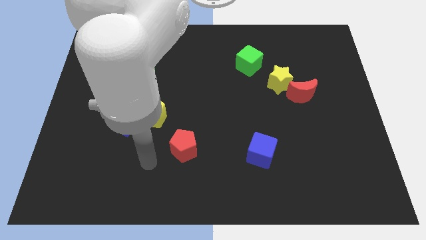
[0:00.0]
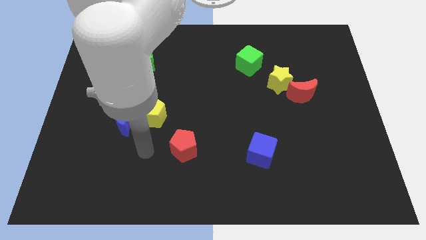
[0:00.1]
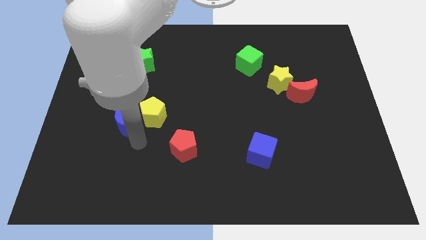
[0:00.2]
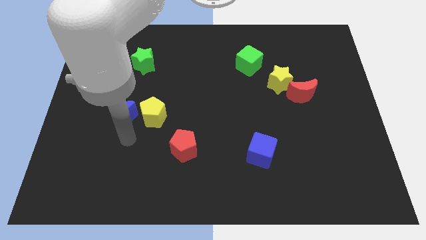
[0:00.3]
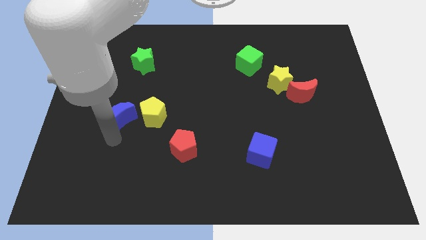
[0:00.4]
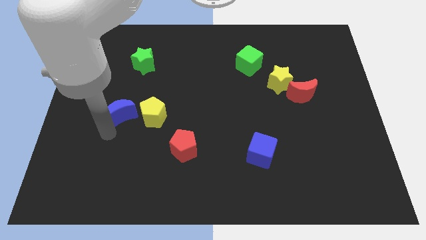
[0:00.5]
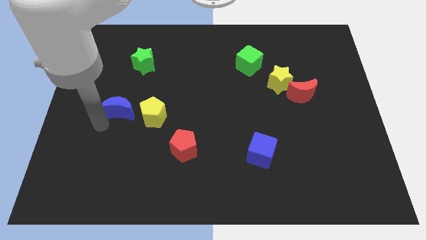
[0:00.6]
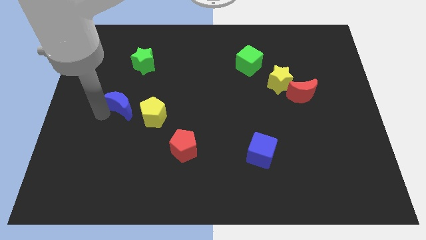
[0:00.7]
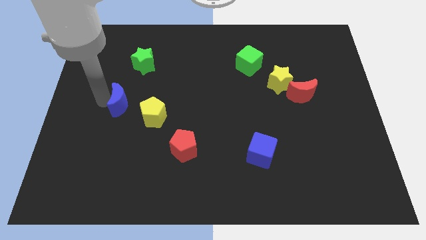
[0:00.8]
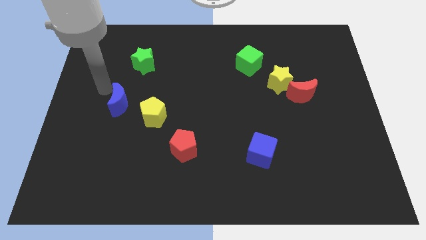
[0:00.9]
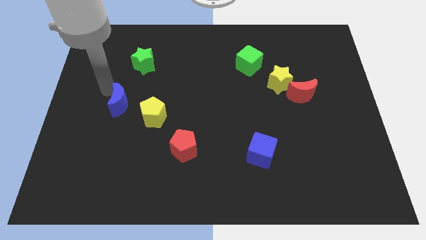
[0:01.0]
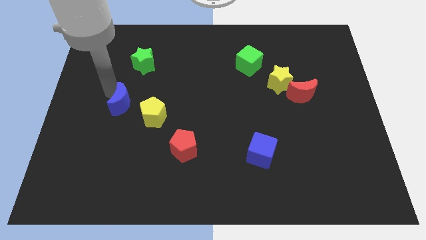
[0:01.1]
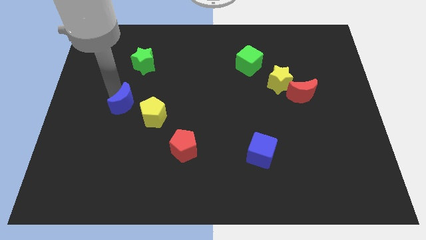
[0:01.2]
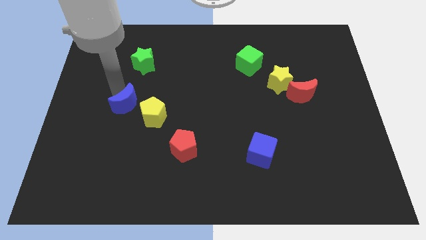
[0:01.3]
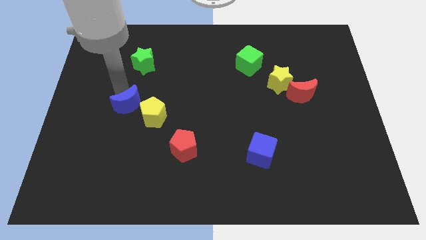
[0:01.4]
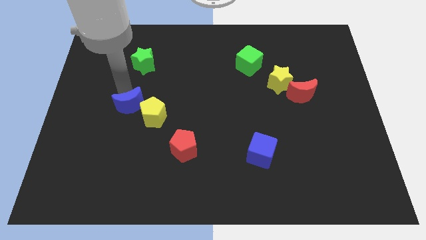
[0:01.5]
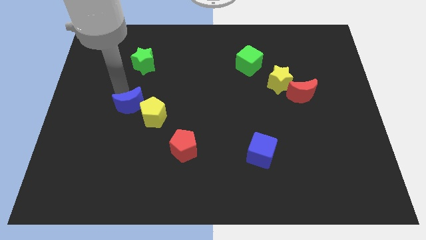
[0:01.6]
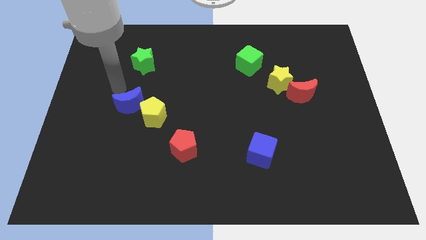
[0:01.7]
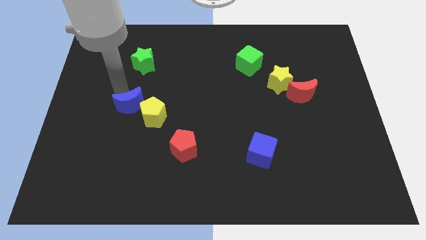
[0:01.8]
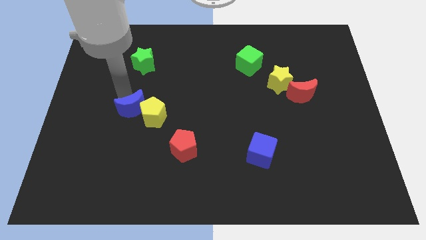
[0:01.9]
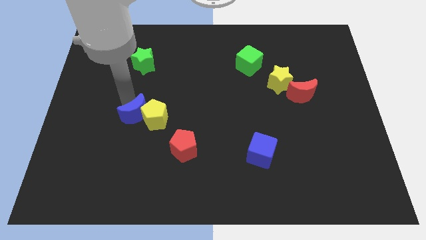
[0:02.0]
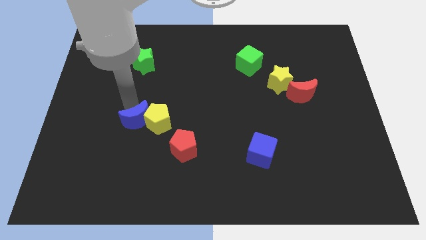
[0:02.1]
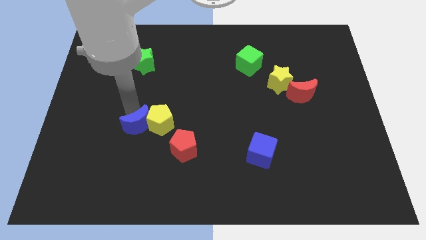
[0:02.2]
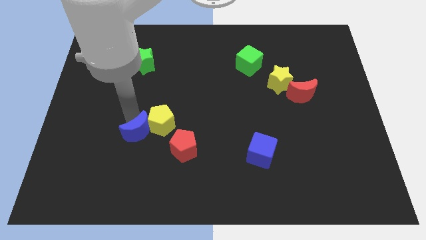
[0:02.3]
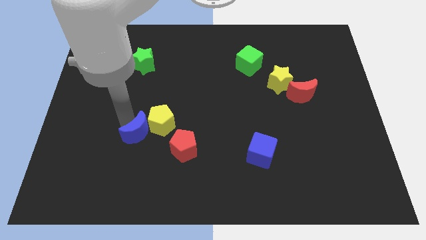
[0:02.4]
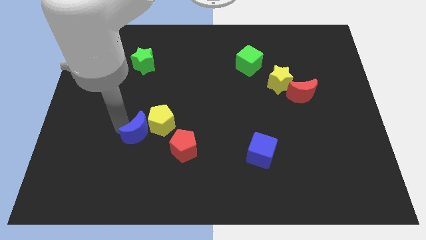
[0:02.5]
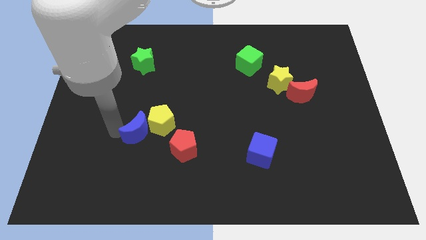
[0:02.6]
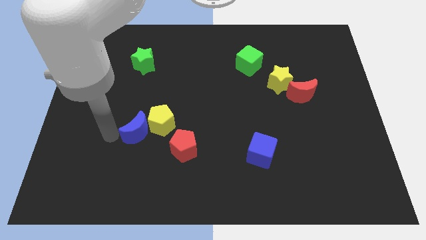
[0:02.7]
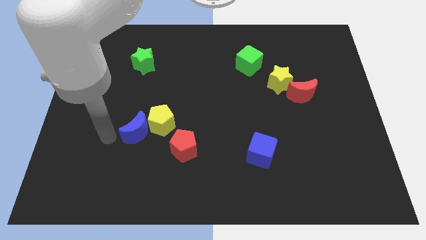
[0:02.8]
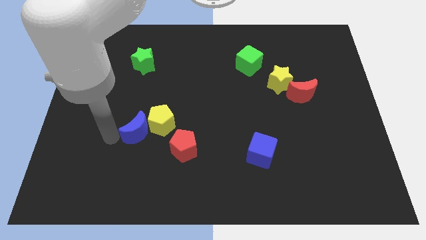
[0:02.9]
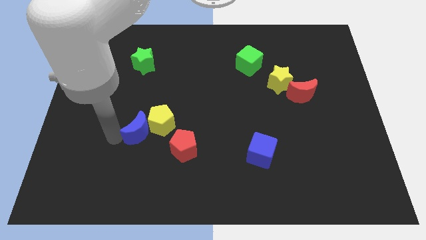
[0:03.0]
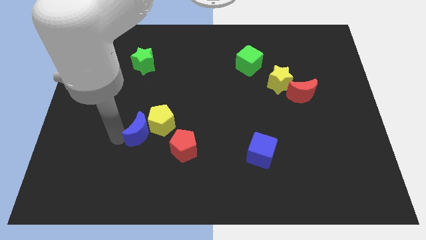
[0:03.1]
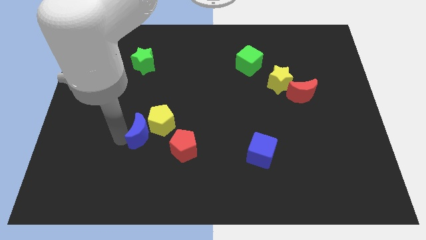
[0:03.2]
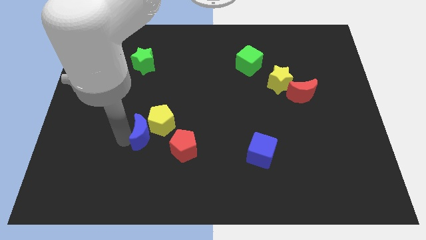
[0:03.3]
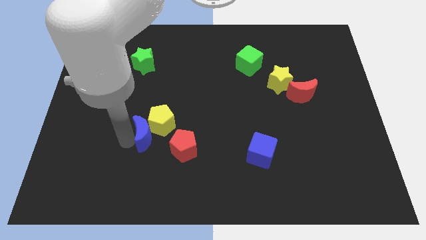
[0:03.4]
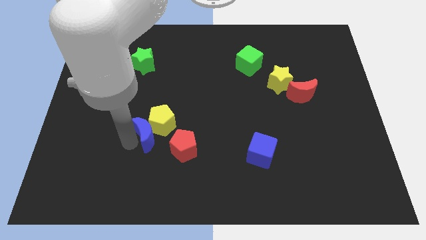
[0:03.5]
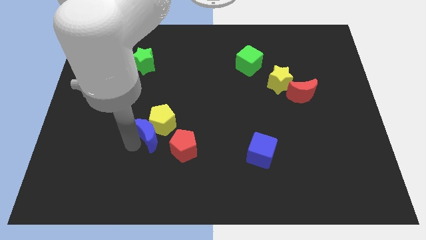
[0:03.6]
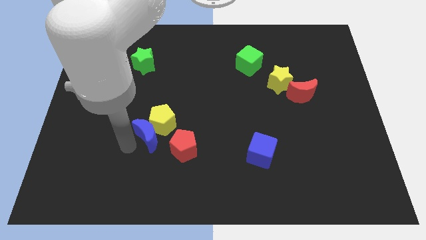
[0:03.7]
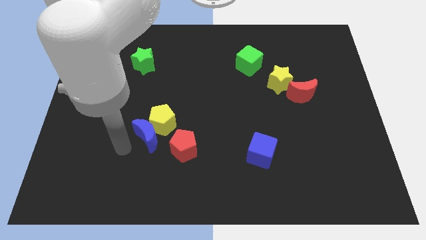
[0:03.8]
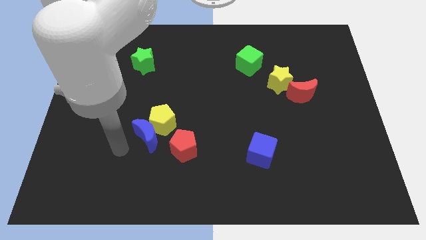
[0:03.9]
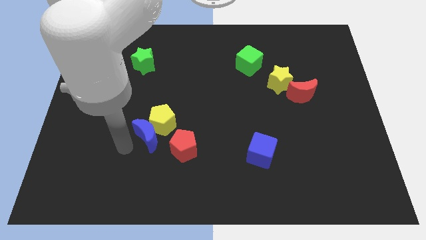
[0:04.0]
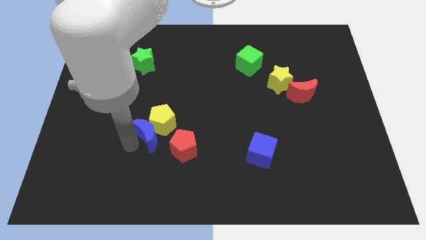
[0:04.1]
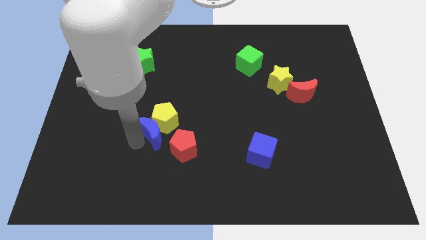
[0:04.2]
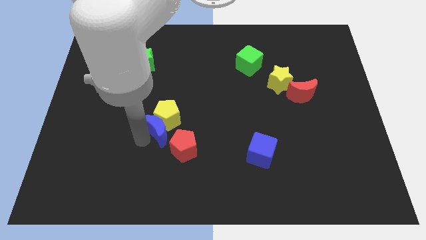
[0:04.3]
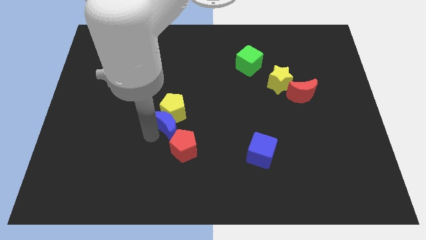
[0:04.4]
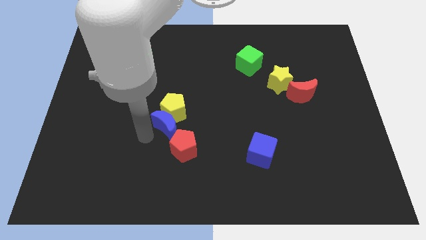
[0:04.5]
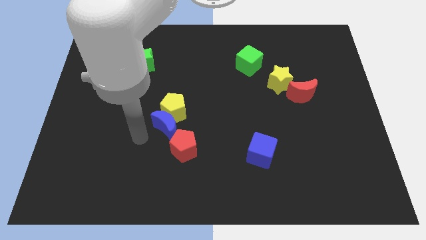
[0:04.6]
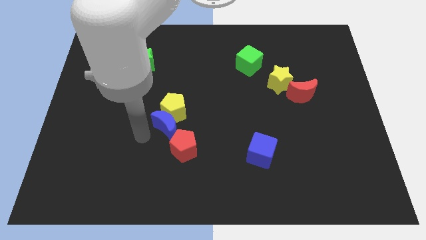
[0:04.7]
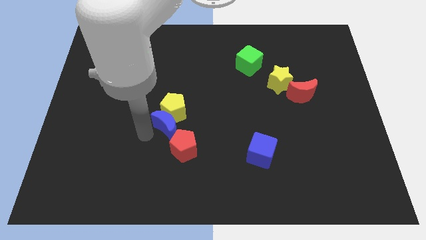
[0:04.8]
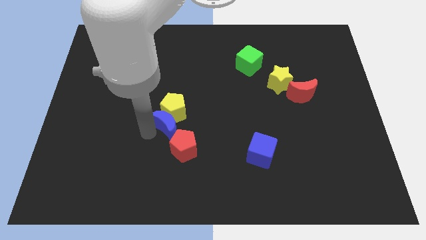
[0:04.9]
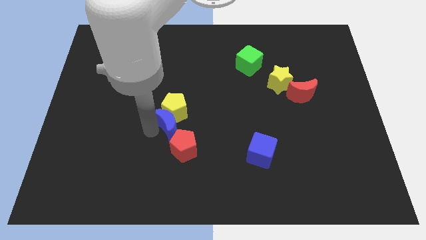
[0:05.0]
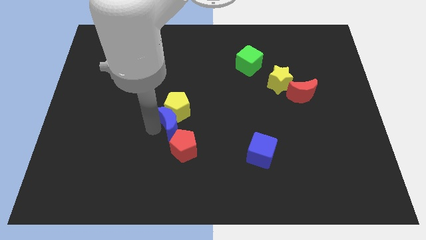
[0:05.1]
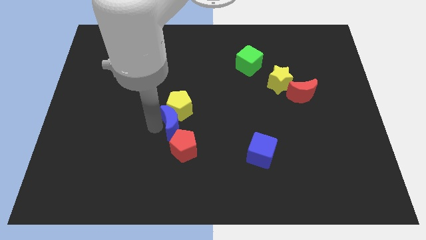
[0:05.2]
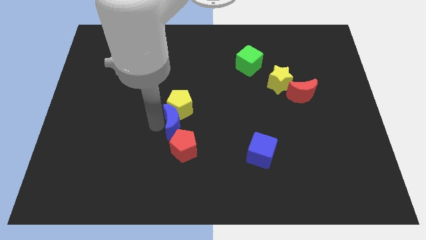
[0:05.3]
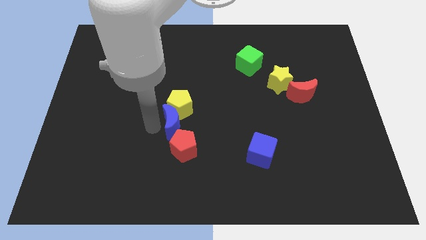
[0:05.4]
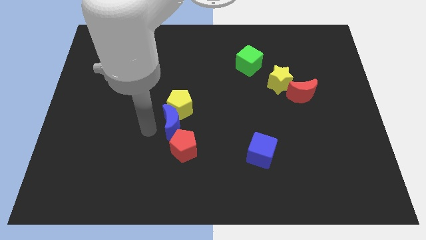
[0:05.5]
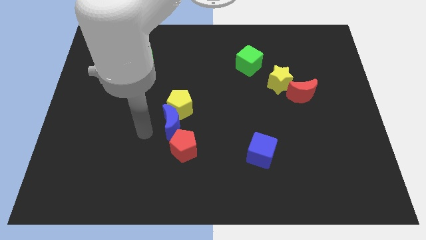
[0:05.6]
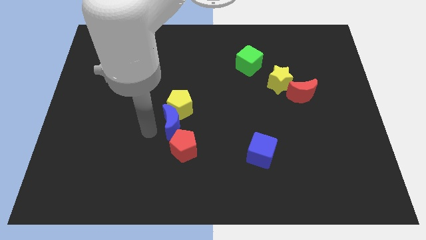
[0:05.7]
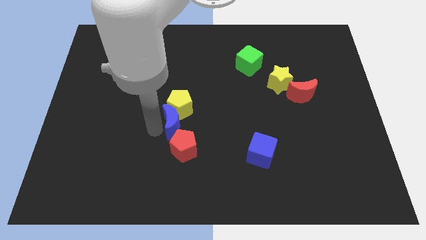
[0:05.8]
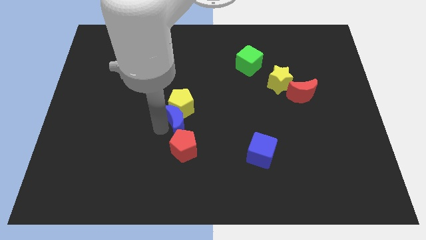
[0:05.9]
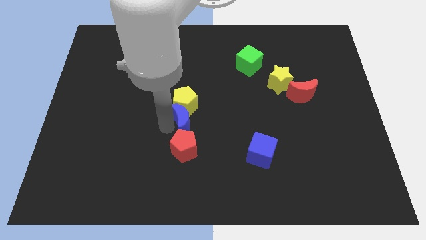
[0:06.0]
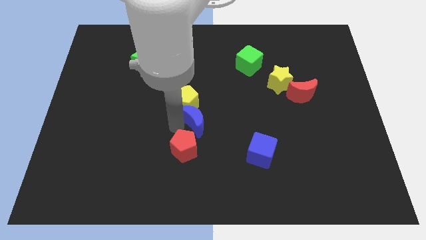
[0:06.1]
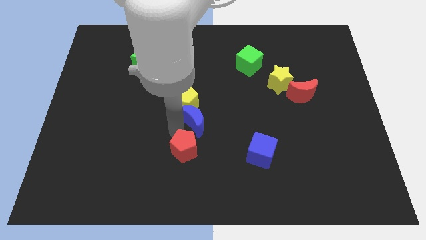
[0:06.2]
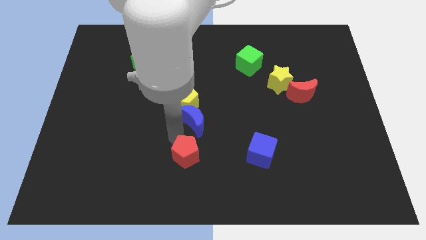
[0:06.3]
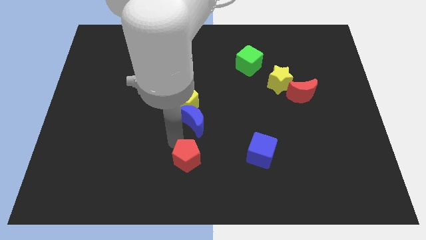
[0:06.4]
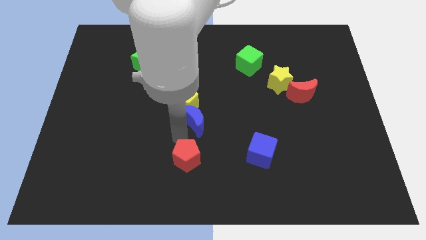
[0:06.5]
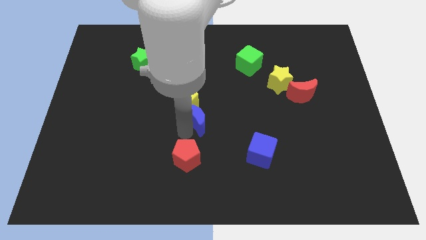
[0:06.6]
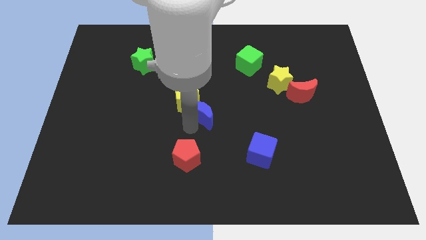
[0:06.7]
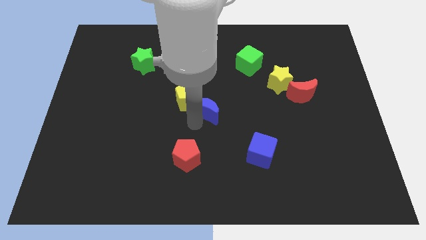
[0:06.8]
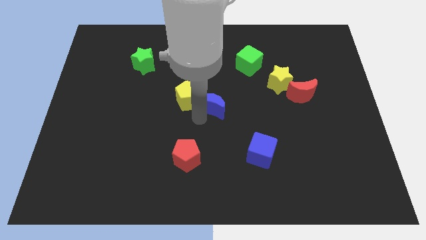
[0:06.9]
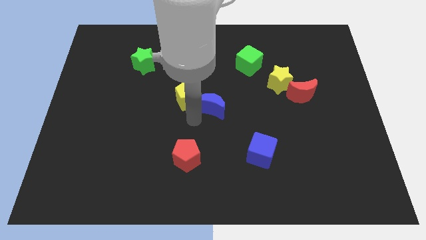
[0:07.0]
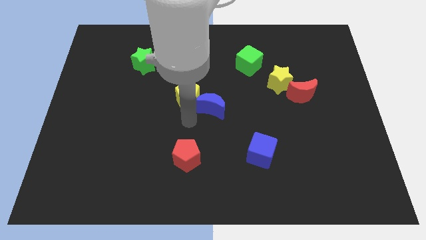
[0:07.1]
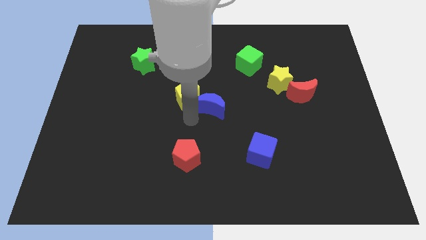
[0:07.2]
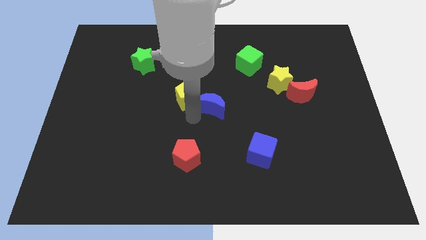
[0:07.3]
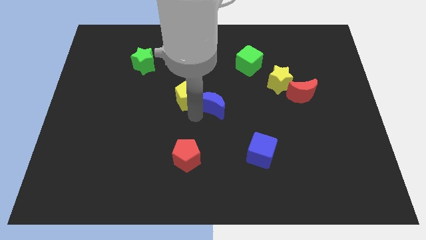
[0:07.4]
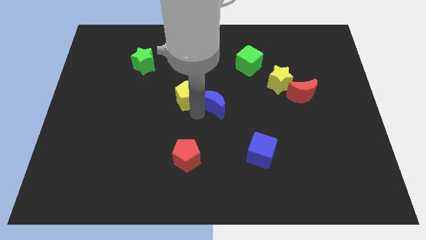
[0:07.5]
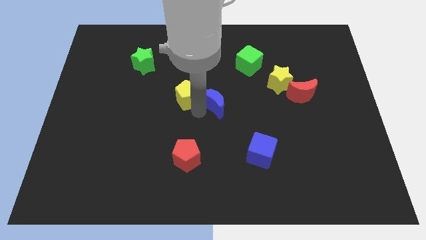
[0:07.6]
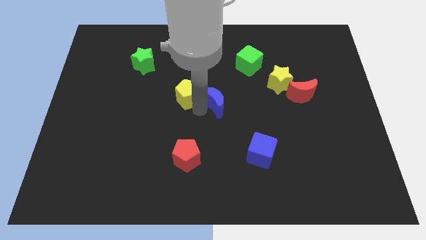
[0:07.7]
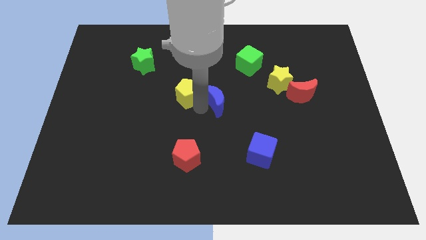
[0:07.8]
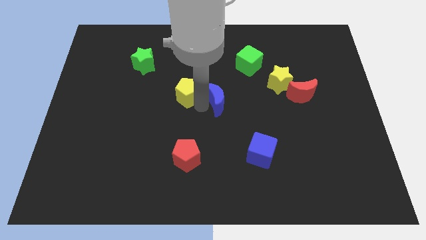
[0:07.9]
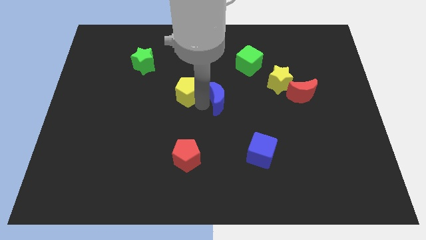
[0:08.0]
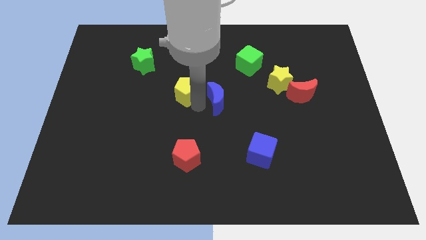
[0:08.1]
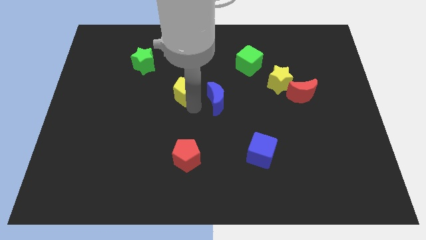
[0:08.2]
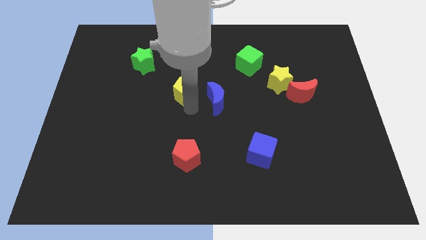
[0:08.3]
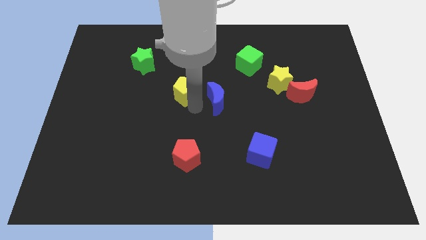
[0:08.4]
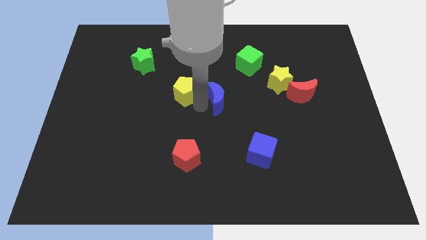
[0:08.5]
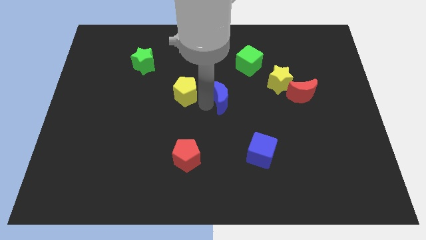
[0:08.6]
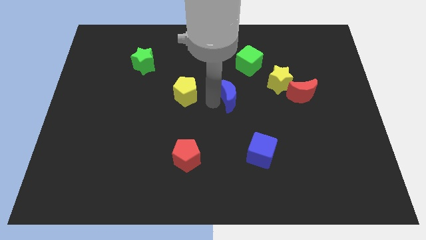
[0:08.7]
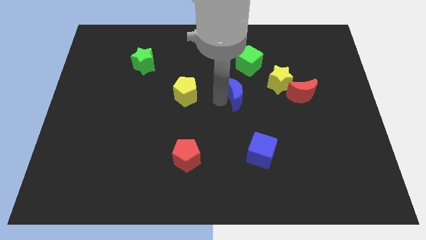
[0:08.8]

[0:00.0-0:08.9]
put the blue moon to the bottom of the green cube
